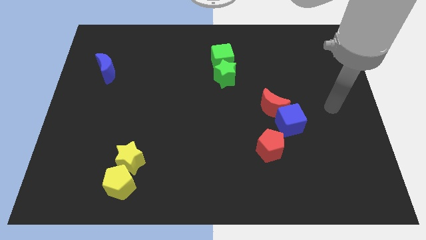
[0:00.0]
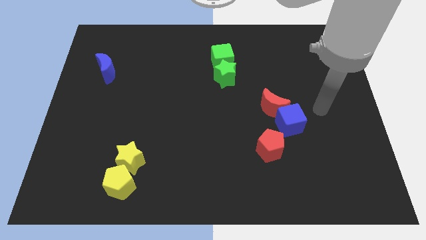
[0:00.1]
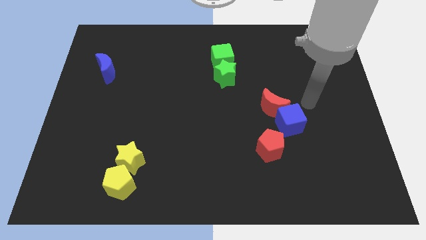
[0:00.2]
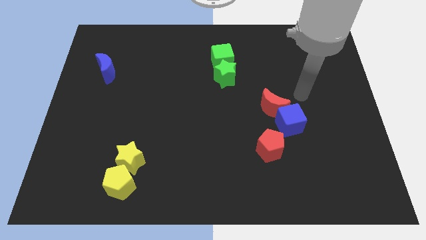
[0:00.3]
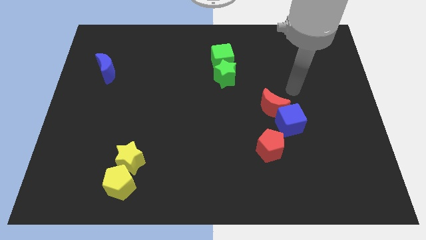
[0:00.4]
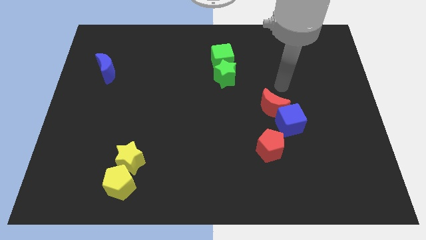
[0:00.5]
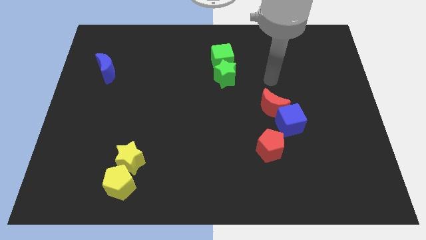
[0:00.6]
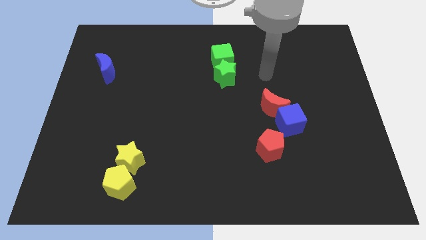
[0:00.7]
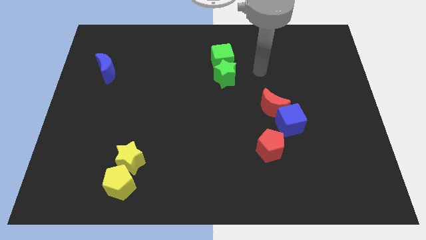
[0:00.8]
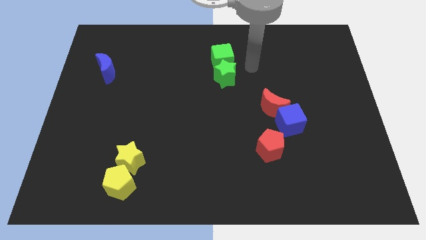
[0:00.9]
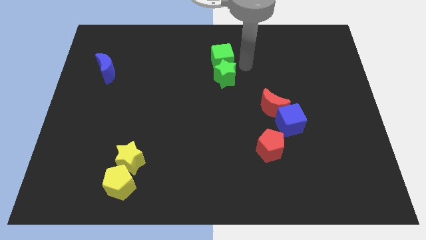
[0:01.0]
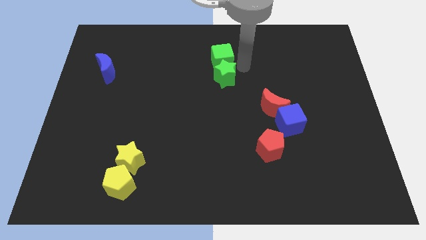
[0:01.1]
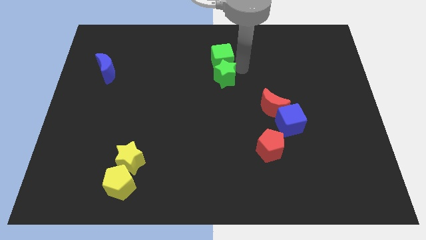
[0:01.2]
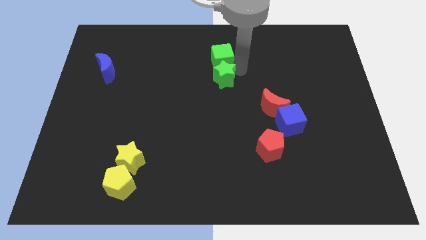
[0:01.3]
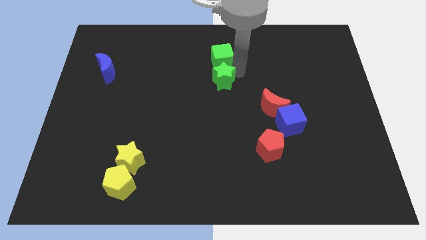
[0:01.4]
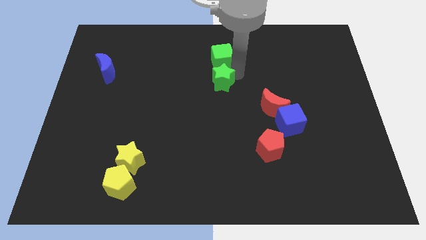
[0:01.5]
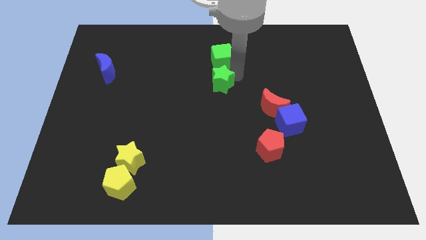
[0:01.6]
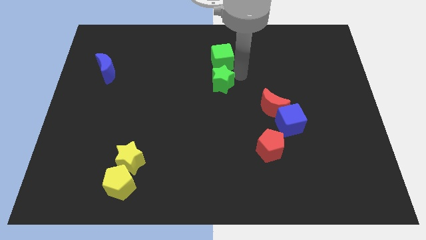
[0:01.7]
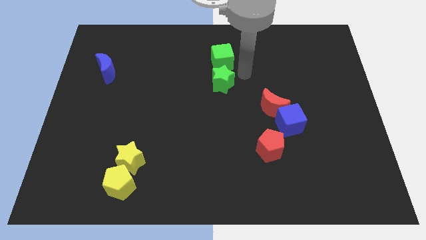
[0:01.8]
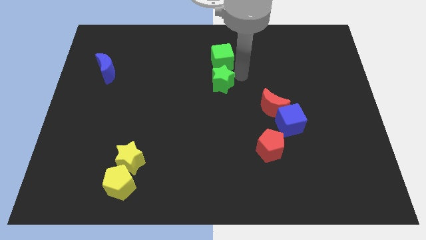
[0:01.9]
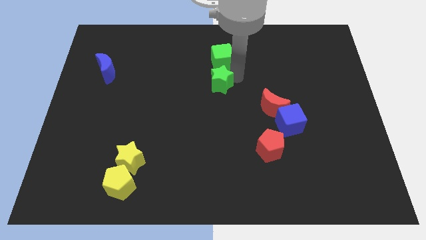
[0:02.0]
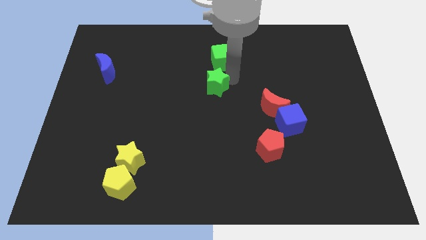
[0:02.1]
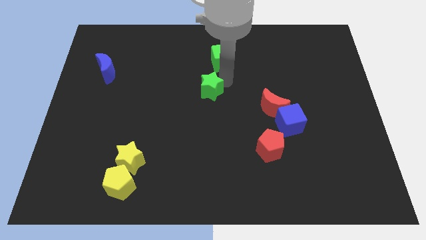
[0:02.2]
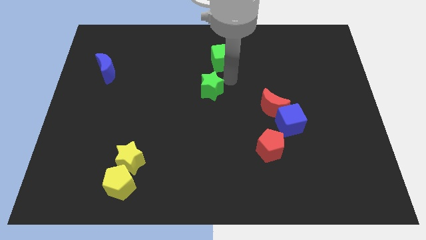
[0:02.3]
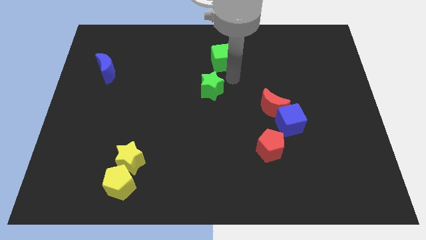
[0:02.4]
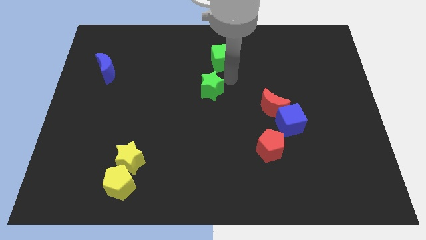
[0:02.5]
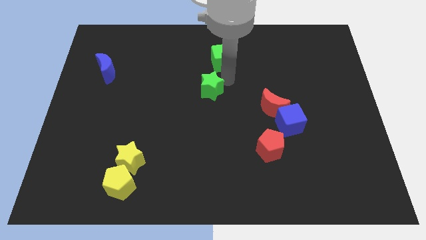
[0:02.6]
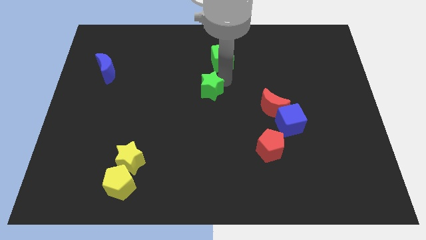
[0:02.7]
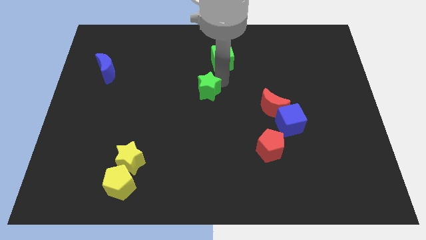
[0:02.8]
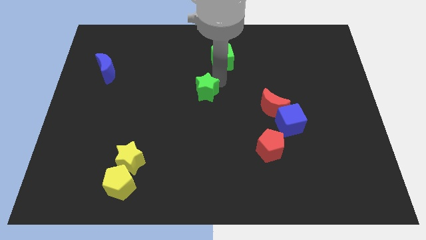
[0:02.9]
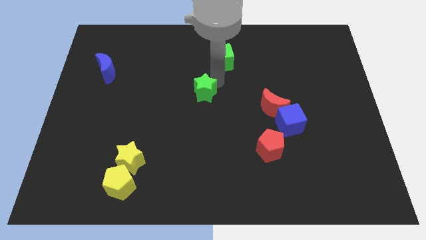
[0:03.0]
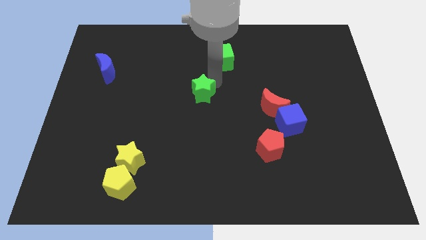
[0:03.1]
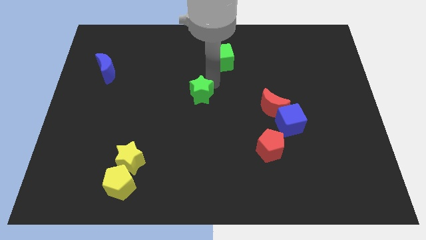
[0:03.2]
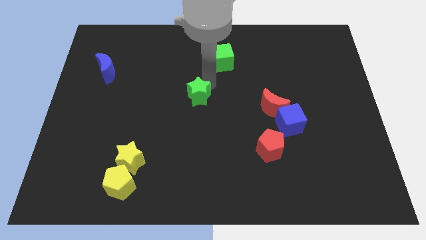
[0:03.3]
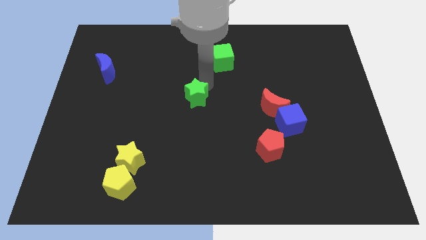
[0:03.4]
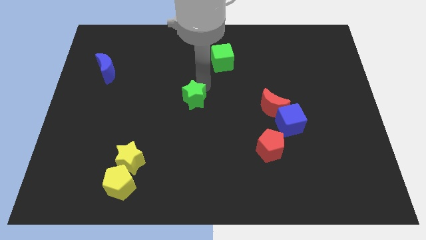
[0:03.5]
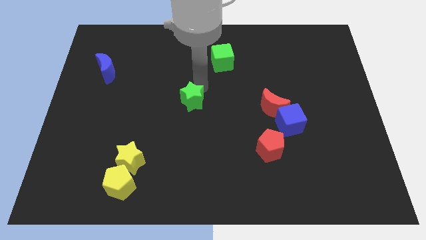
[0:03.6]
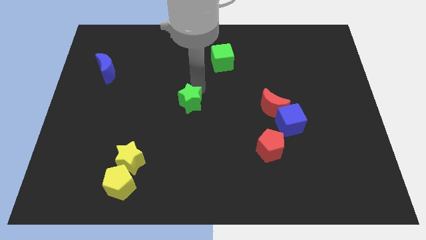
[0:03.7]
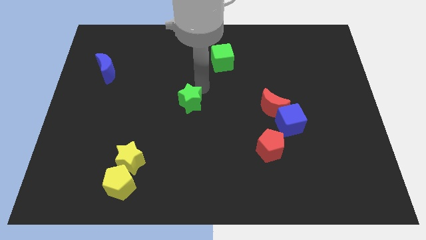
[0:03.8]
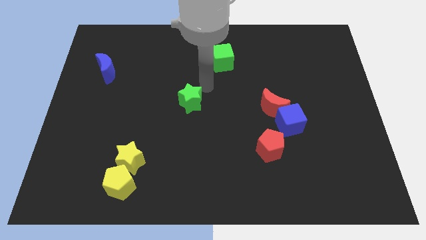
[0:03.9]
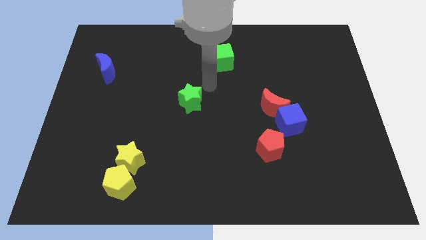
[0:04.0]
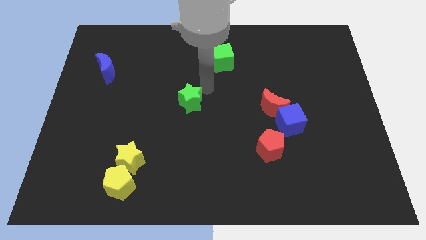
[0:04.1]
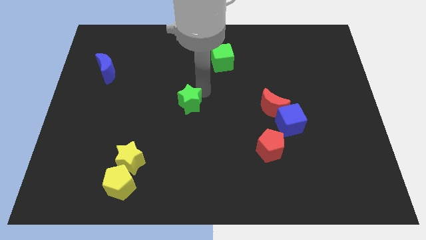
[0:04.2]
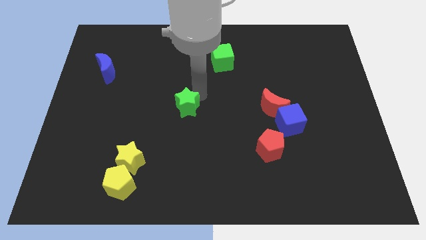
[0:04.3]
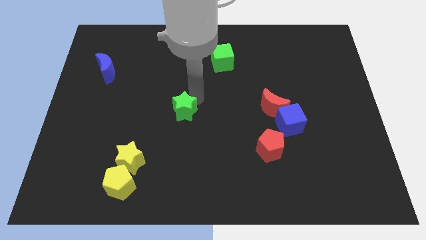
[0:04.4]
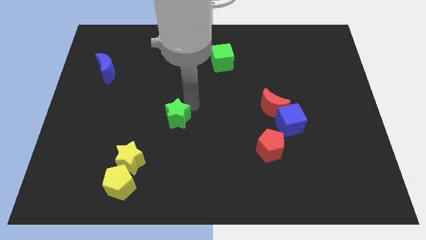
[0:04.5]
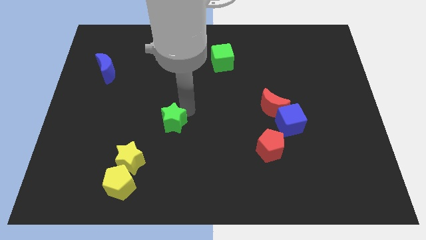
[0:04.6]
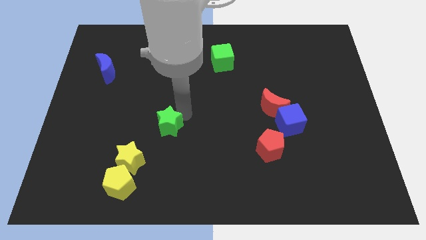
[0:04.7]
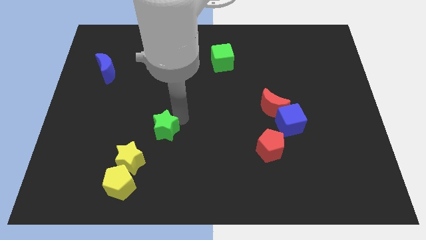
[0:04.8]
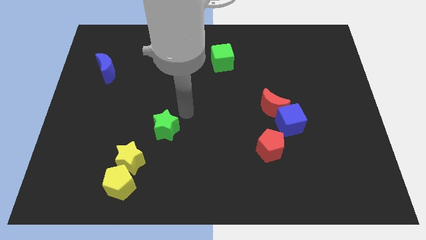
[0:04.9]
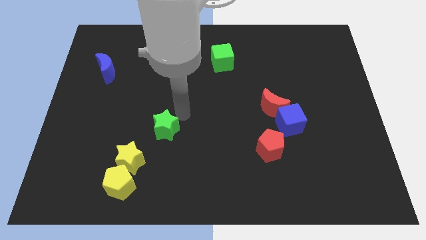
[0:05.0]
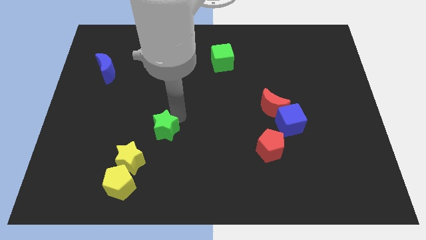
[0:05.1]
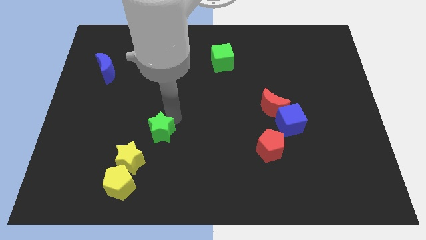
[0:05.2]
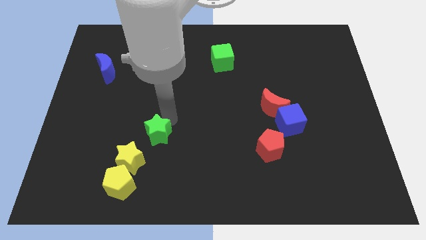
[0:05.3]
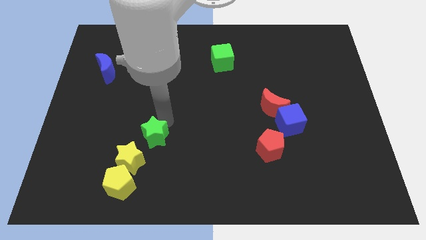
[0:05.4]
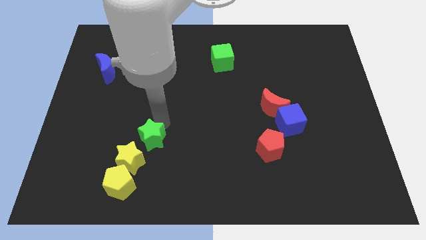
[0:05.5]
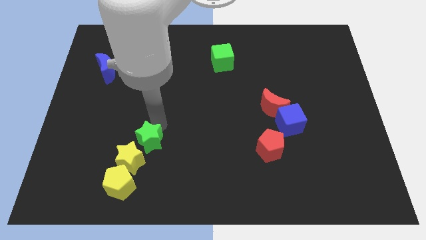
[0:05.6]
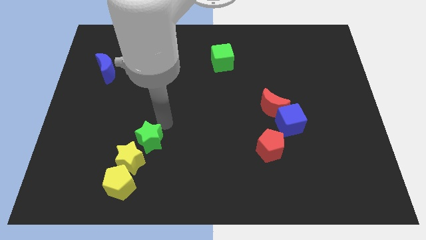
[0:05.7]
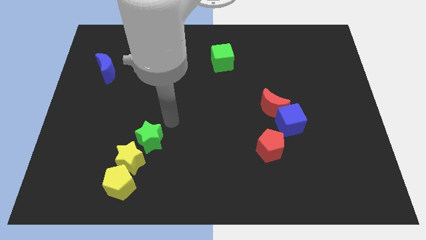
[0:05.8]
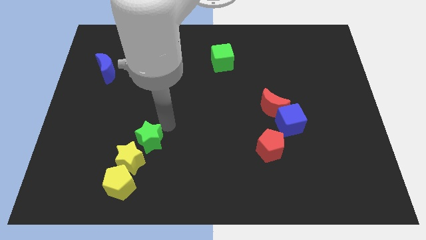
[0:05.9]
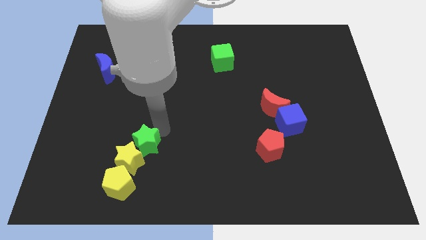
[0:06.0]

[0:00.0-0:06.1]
move the green star to the yellow star
